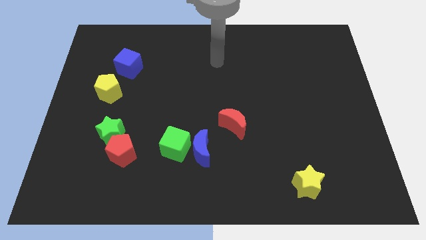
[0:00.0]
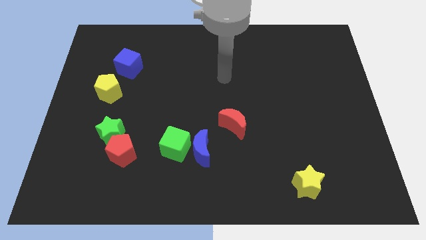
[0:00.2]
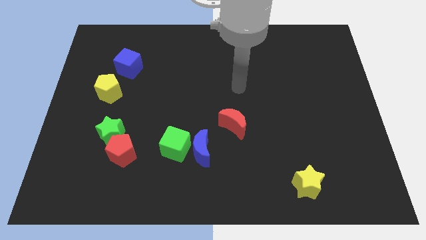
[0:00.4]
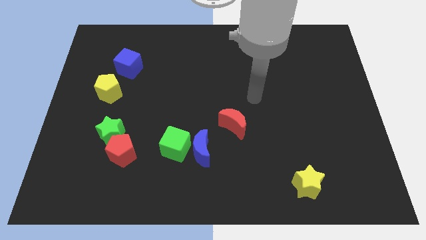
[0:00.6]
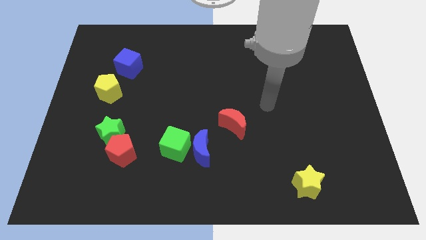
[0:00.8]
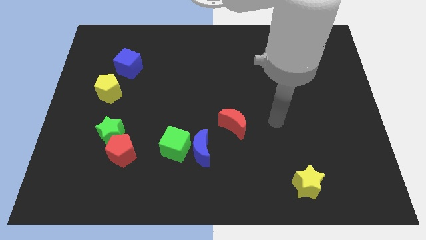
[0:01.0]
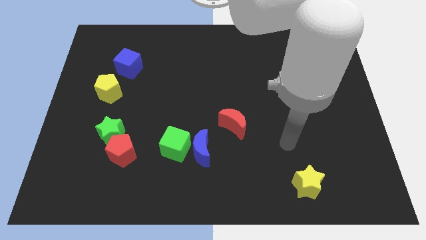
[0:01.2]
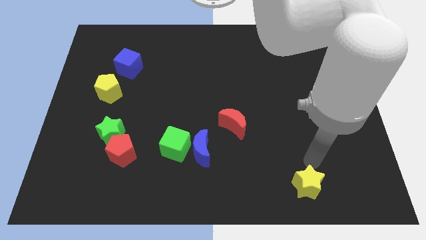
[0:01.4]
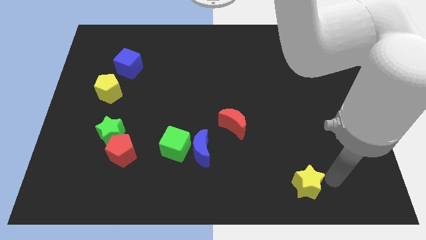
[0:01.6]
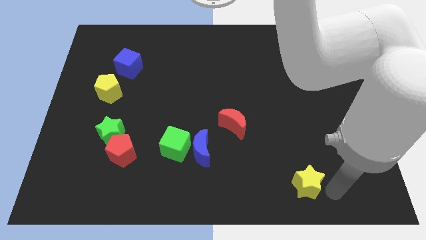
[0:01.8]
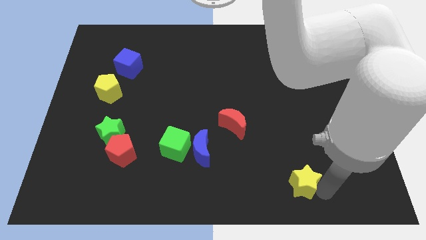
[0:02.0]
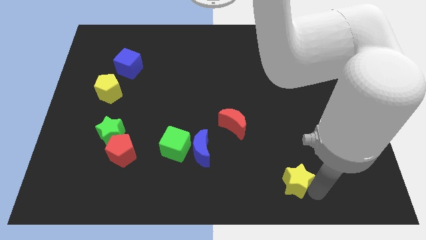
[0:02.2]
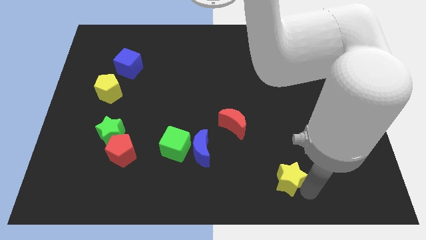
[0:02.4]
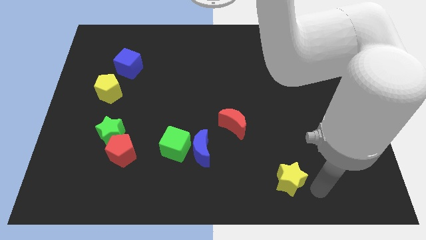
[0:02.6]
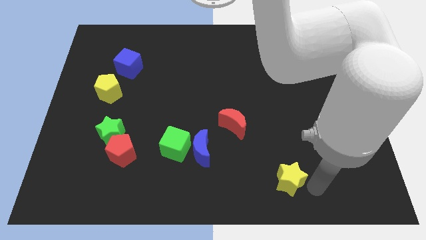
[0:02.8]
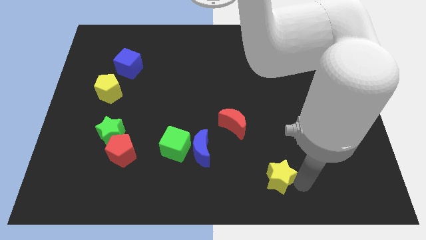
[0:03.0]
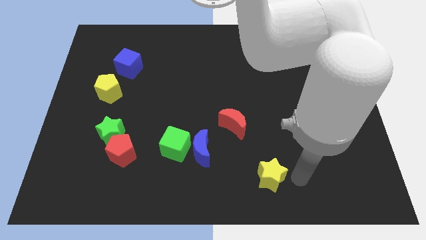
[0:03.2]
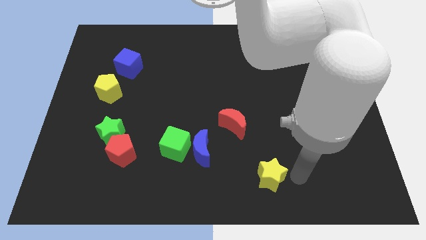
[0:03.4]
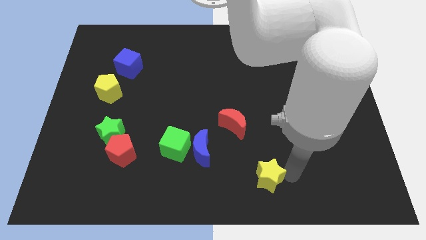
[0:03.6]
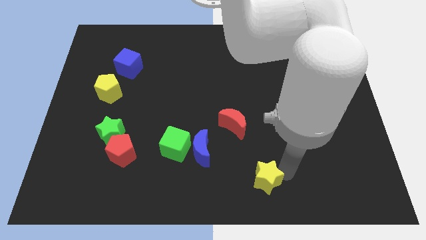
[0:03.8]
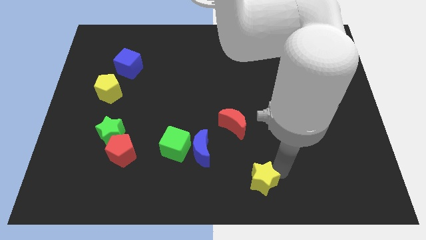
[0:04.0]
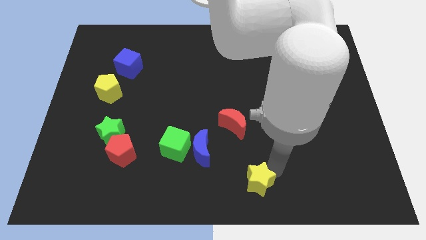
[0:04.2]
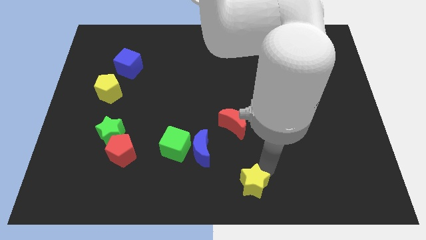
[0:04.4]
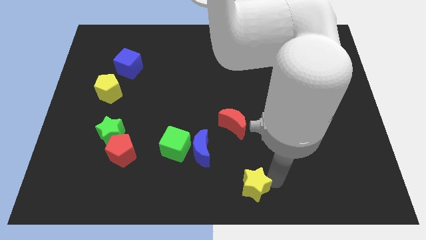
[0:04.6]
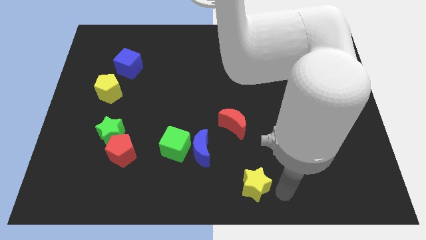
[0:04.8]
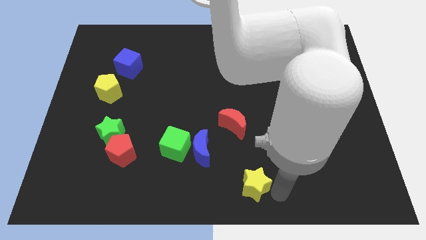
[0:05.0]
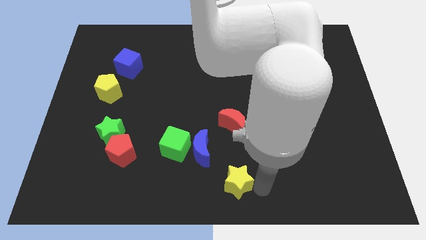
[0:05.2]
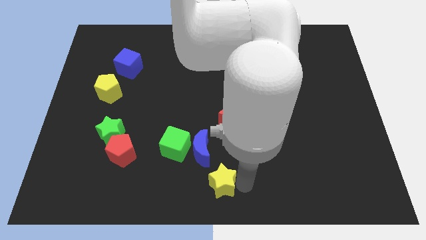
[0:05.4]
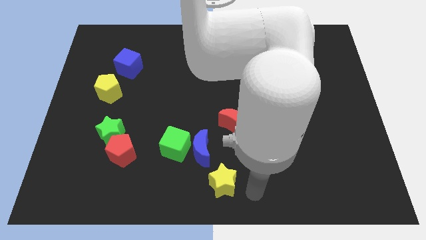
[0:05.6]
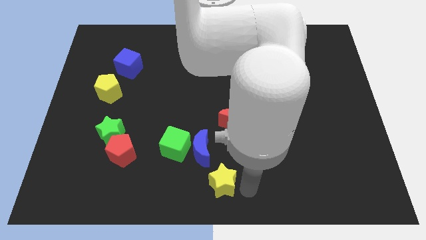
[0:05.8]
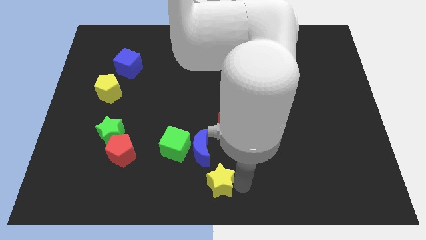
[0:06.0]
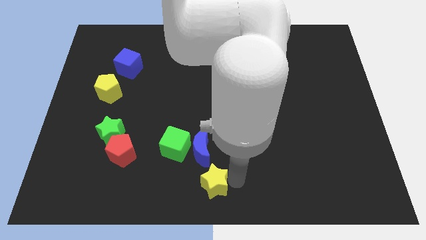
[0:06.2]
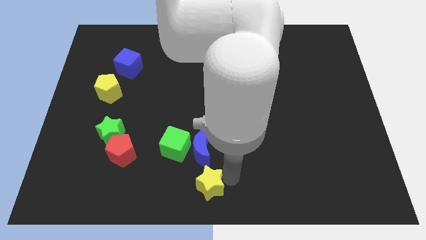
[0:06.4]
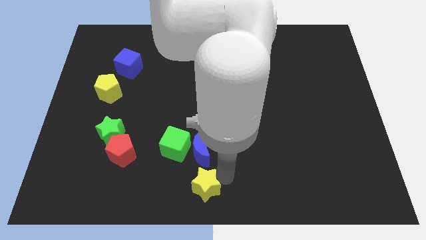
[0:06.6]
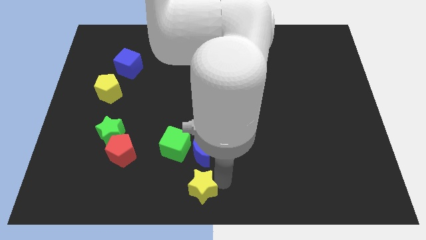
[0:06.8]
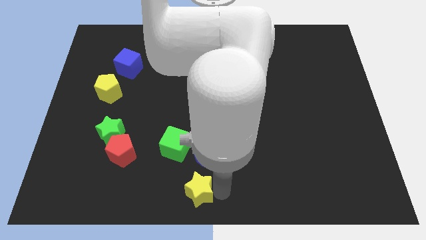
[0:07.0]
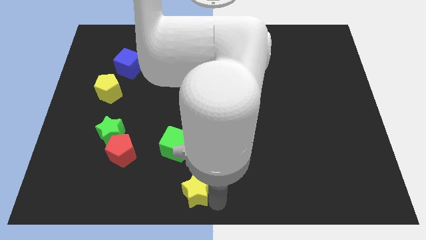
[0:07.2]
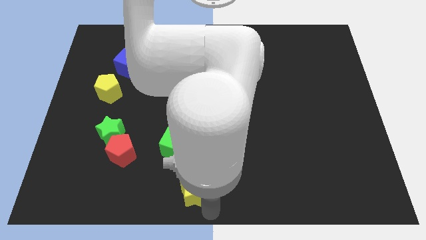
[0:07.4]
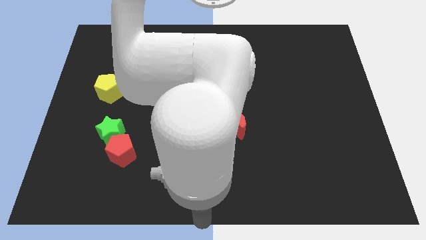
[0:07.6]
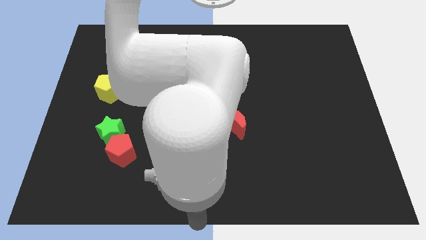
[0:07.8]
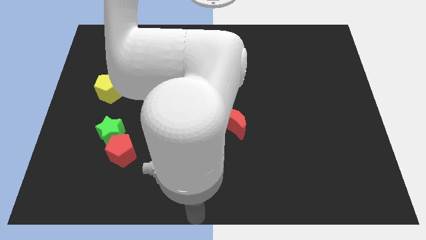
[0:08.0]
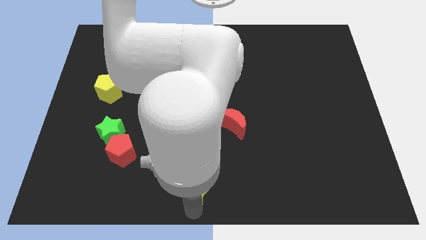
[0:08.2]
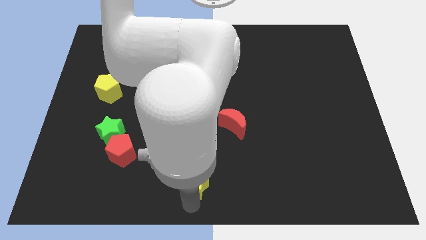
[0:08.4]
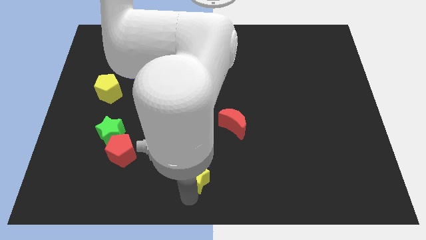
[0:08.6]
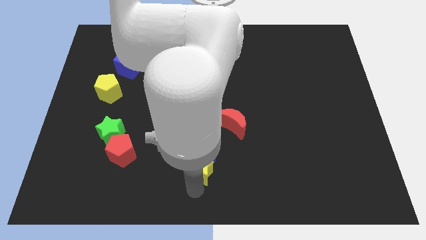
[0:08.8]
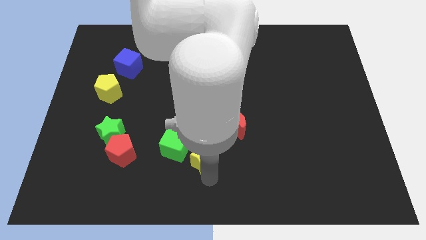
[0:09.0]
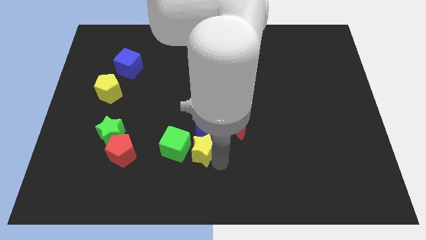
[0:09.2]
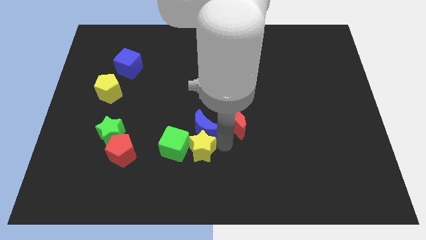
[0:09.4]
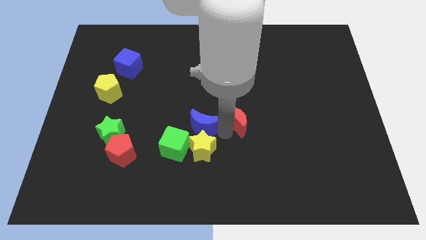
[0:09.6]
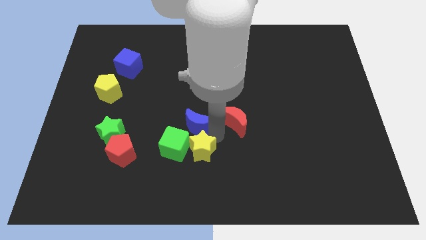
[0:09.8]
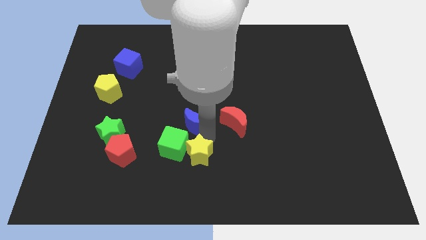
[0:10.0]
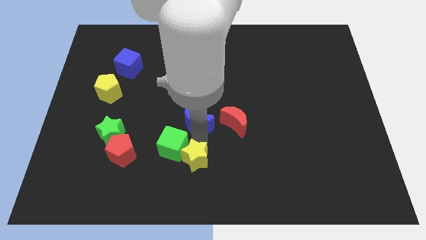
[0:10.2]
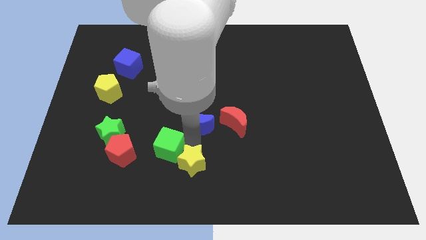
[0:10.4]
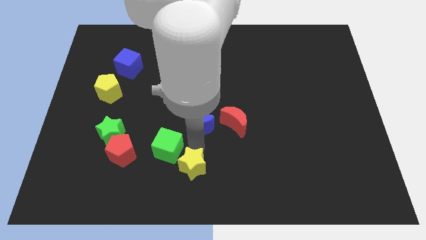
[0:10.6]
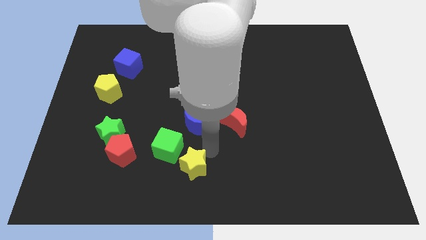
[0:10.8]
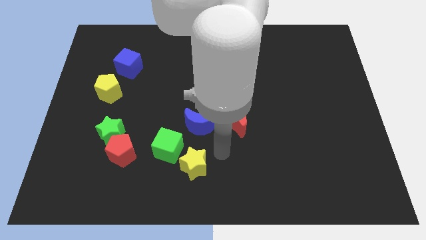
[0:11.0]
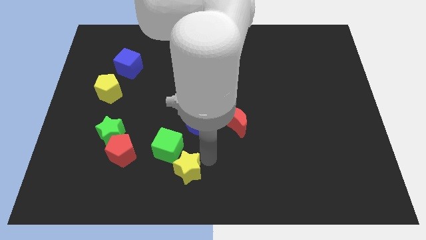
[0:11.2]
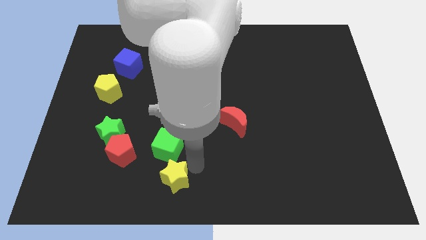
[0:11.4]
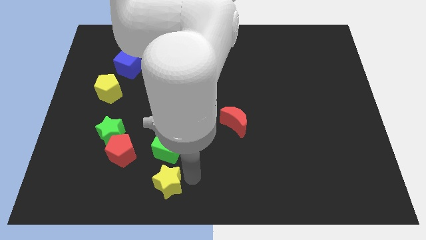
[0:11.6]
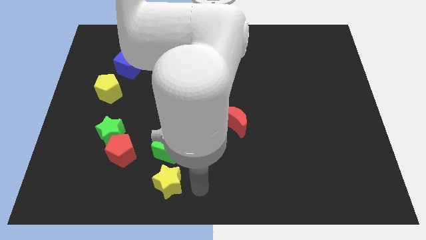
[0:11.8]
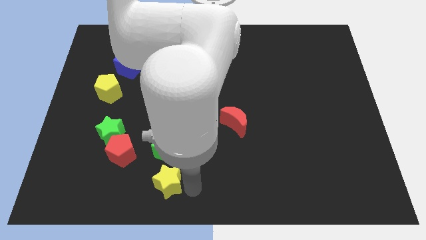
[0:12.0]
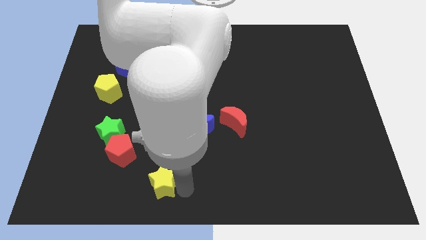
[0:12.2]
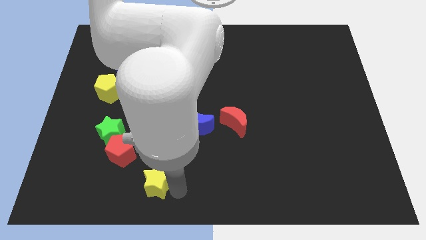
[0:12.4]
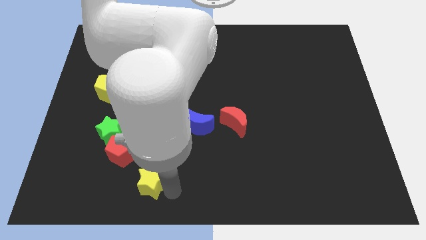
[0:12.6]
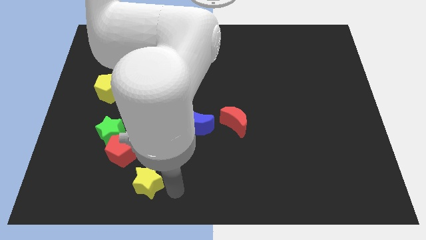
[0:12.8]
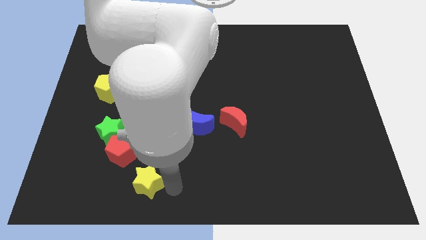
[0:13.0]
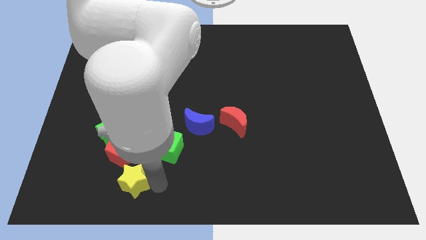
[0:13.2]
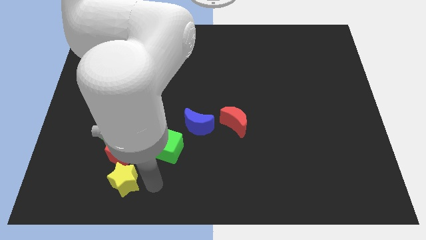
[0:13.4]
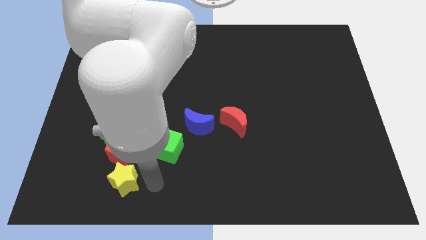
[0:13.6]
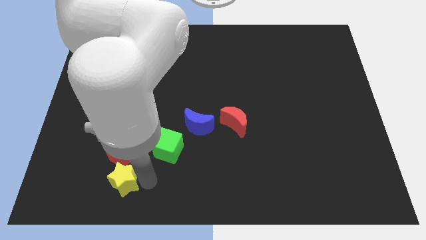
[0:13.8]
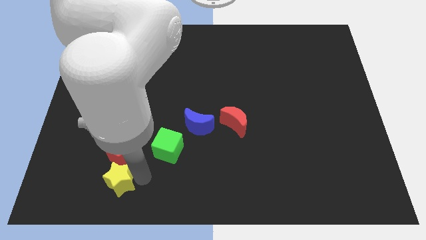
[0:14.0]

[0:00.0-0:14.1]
slide the yellow star to the bottom left side of the red pentagon
